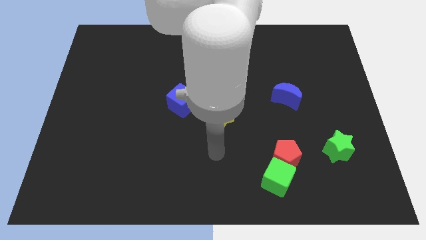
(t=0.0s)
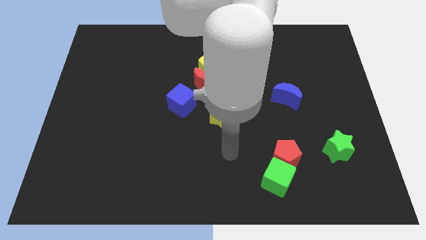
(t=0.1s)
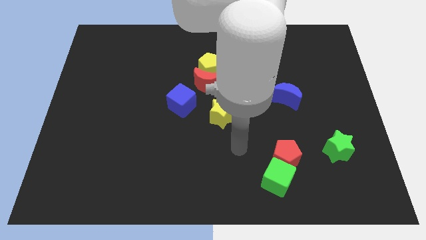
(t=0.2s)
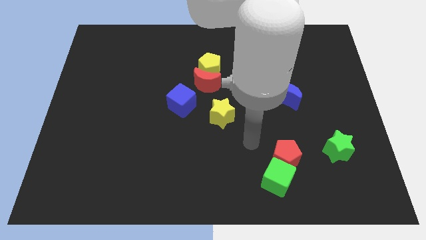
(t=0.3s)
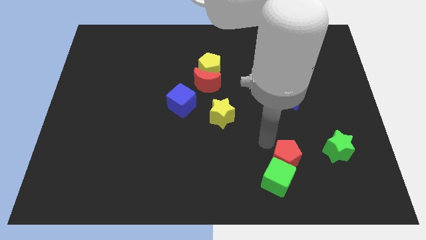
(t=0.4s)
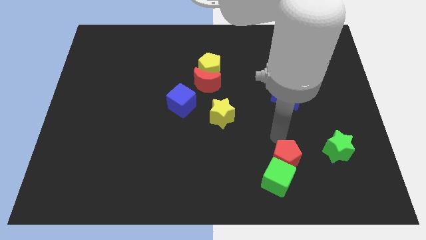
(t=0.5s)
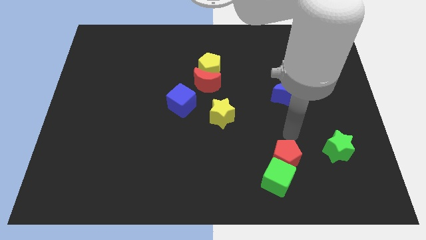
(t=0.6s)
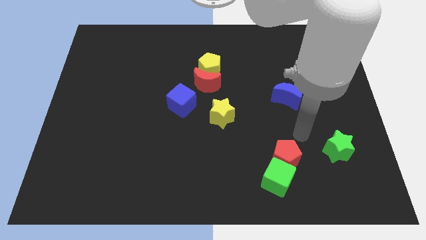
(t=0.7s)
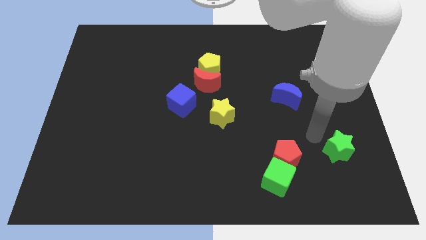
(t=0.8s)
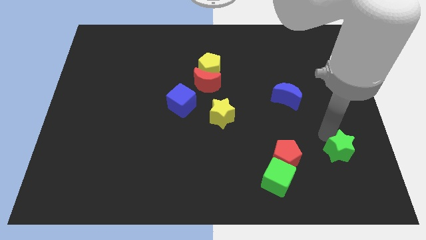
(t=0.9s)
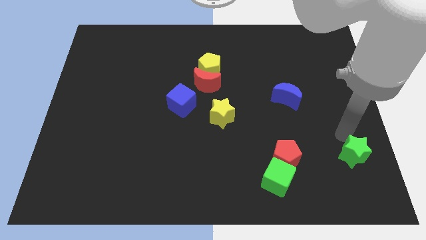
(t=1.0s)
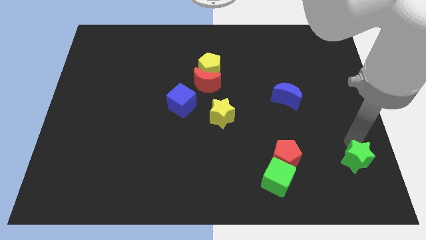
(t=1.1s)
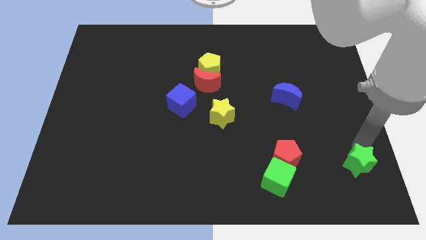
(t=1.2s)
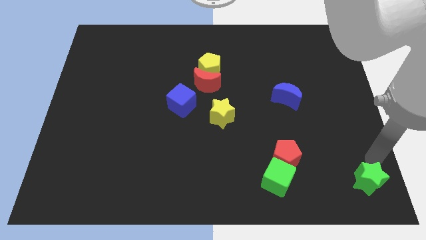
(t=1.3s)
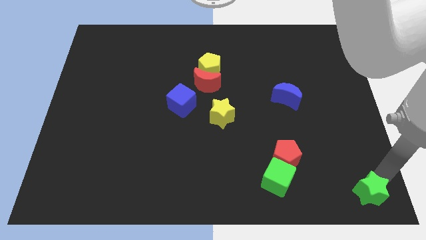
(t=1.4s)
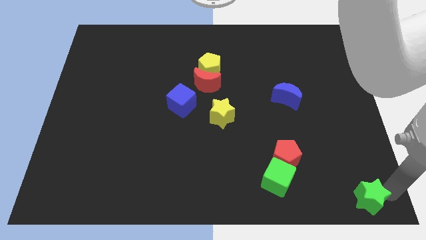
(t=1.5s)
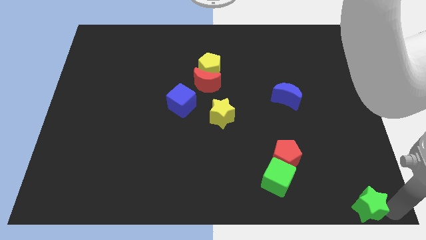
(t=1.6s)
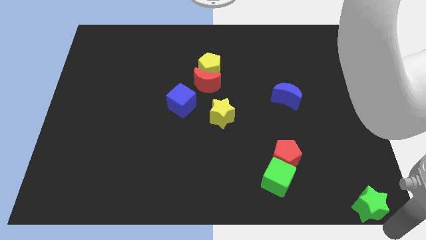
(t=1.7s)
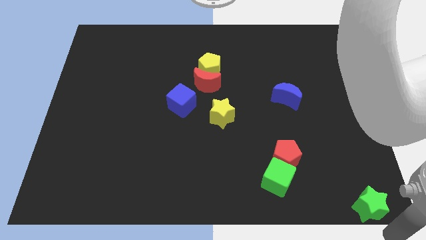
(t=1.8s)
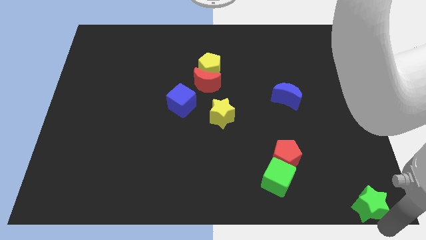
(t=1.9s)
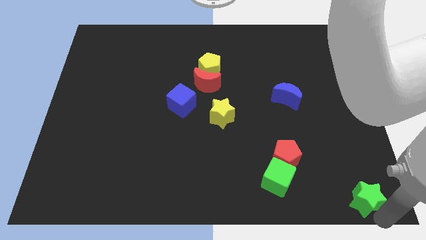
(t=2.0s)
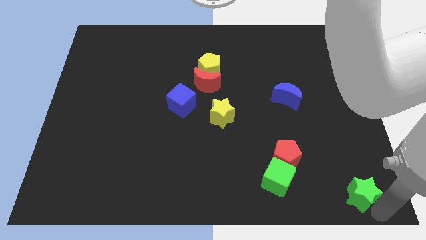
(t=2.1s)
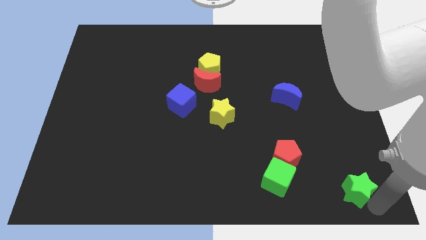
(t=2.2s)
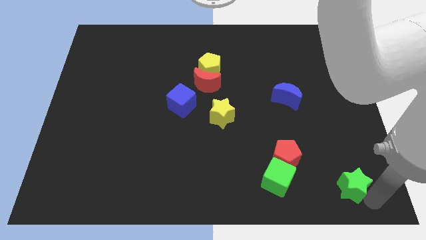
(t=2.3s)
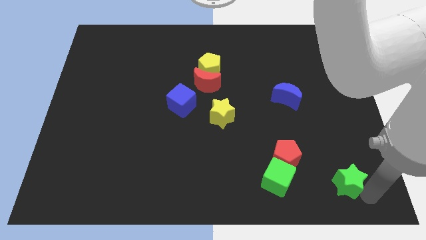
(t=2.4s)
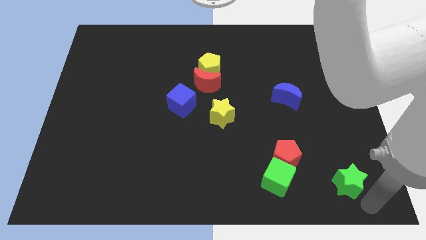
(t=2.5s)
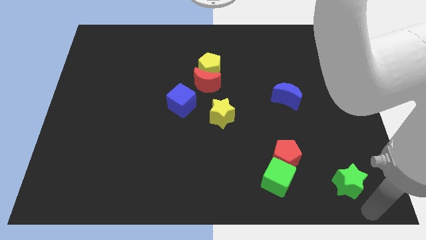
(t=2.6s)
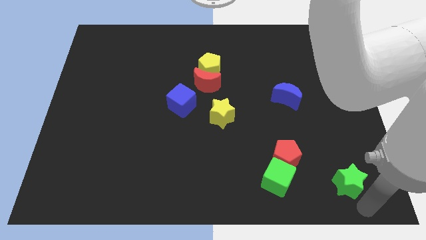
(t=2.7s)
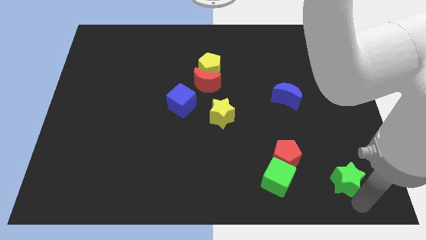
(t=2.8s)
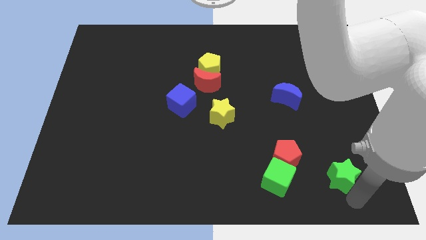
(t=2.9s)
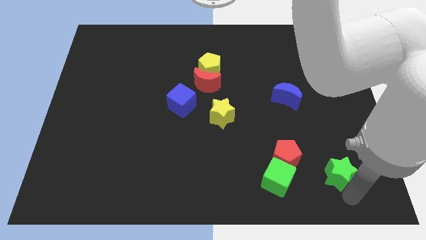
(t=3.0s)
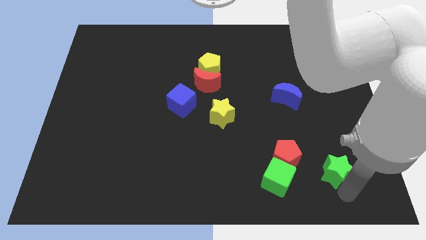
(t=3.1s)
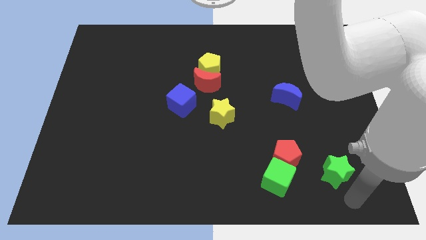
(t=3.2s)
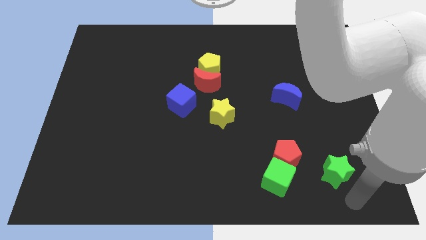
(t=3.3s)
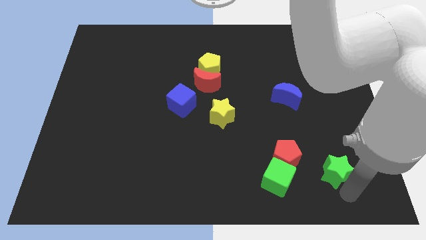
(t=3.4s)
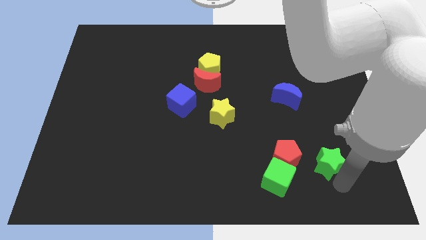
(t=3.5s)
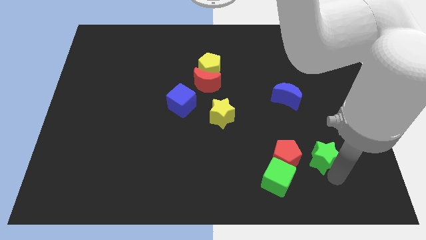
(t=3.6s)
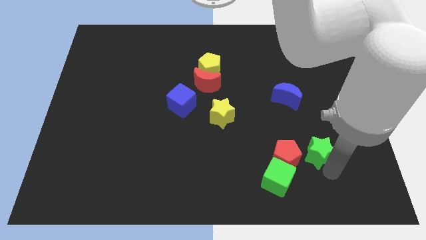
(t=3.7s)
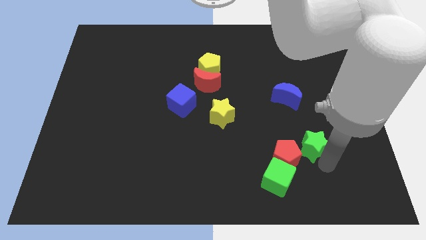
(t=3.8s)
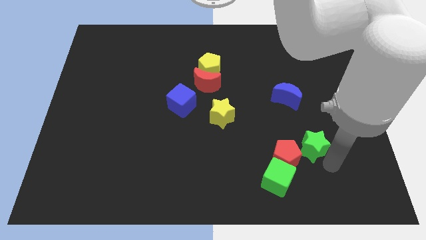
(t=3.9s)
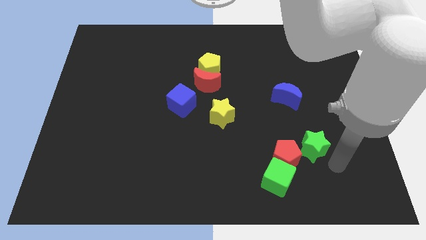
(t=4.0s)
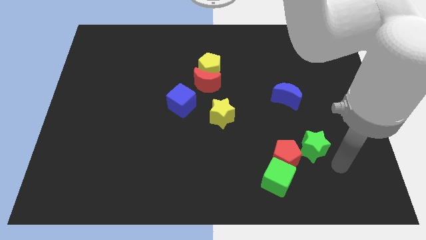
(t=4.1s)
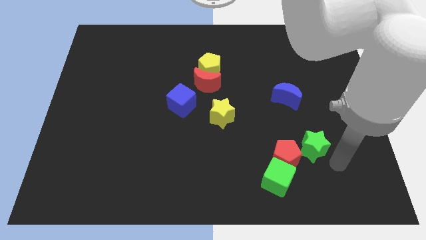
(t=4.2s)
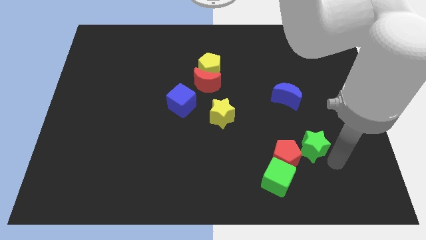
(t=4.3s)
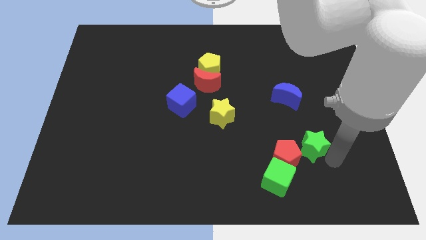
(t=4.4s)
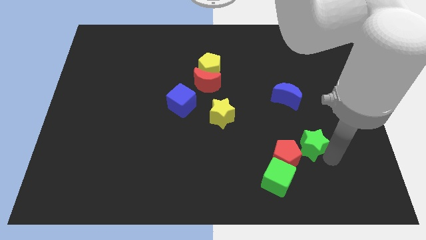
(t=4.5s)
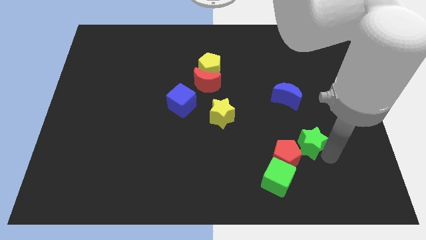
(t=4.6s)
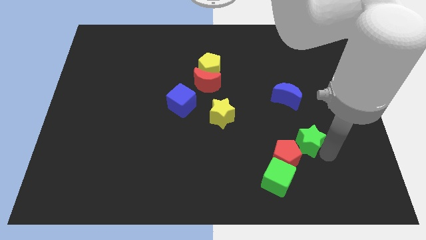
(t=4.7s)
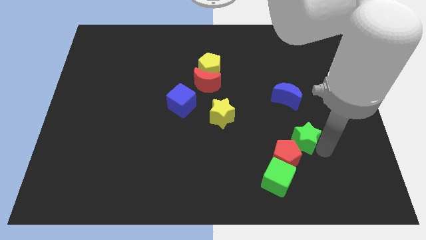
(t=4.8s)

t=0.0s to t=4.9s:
slightly push the green star left

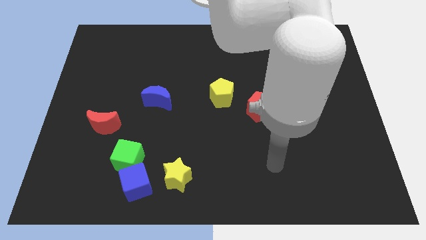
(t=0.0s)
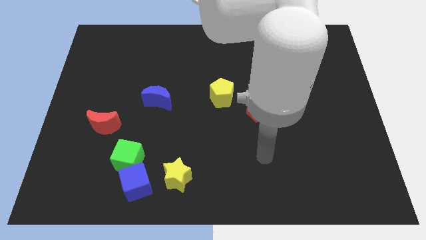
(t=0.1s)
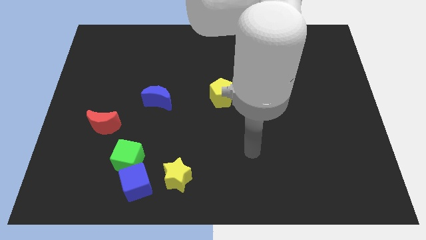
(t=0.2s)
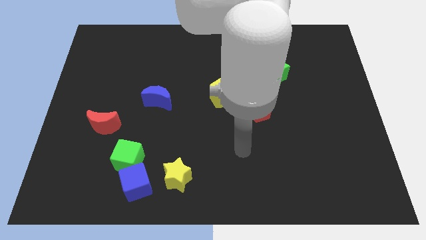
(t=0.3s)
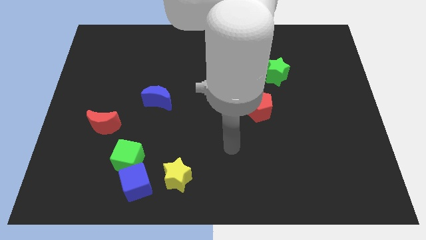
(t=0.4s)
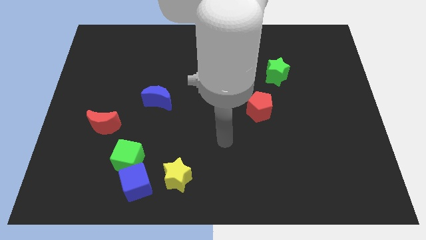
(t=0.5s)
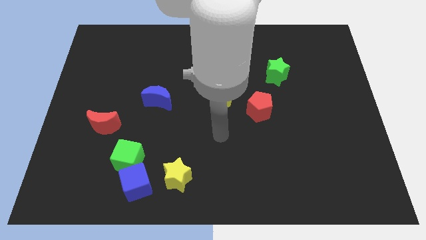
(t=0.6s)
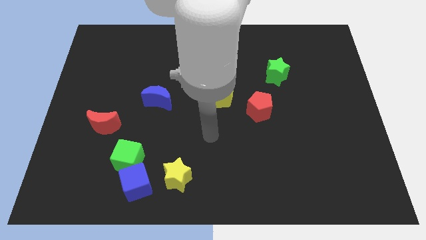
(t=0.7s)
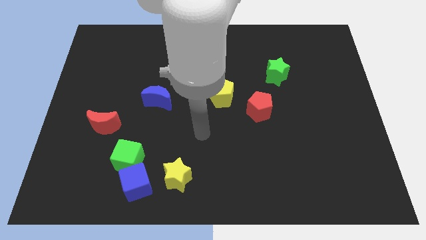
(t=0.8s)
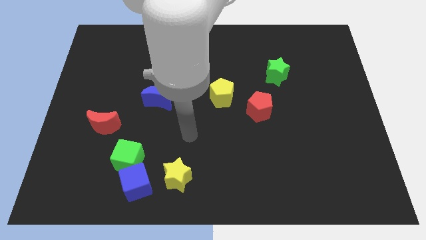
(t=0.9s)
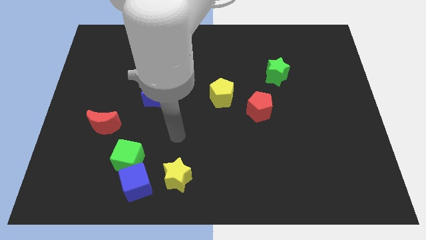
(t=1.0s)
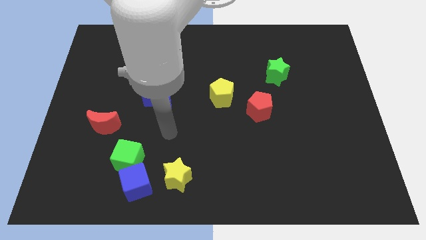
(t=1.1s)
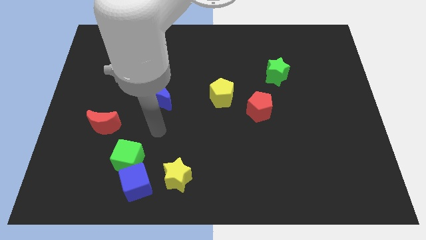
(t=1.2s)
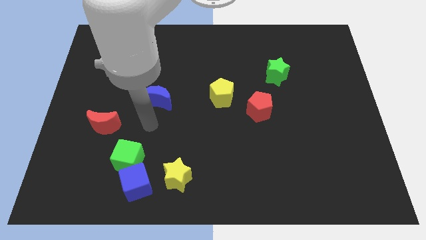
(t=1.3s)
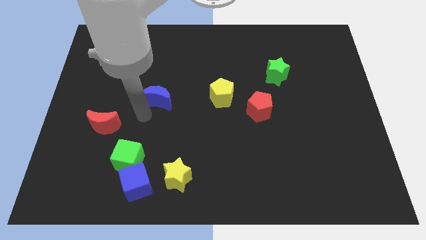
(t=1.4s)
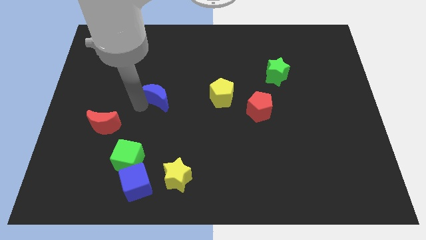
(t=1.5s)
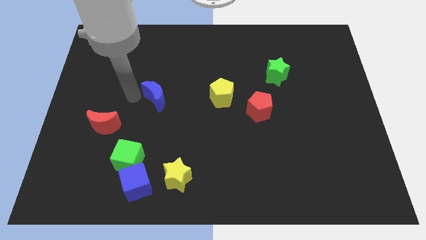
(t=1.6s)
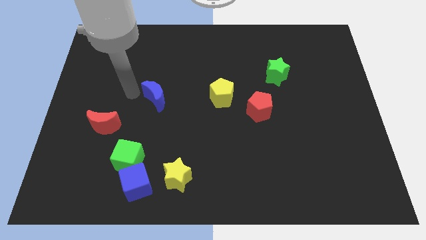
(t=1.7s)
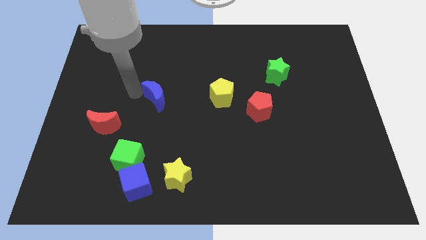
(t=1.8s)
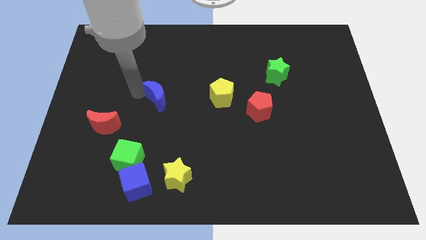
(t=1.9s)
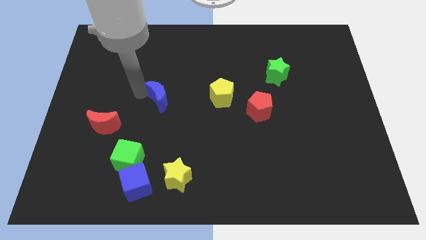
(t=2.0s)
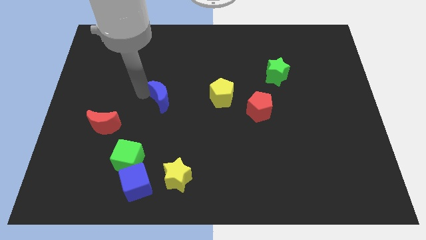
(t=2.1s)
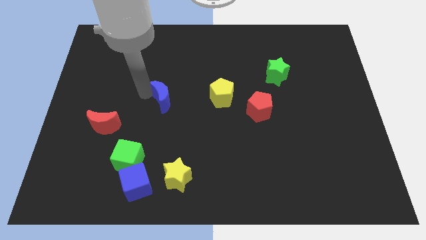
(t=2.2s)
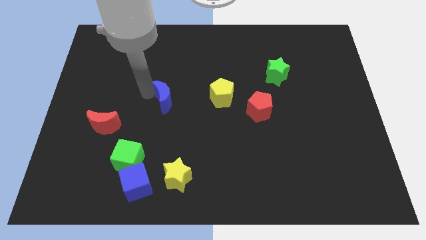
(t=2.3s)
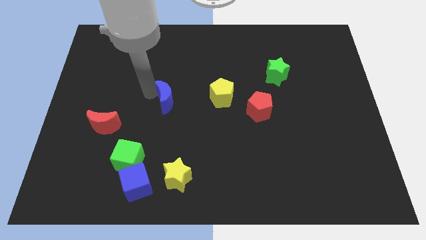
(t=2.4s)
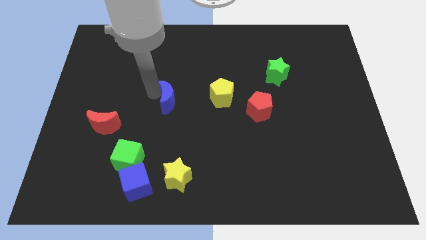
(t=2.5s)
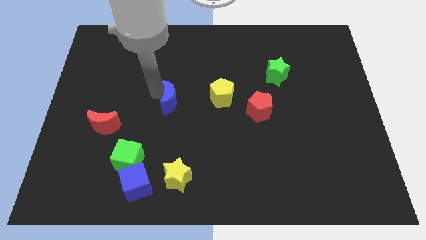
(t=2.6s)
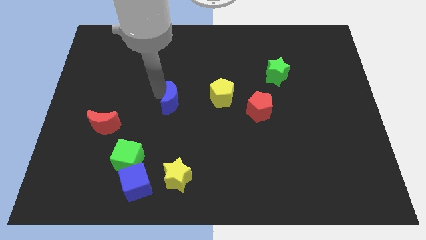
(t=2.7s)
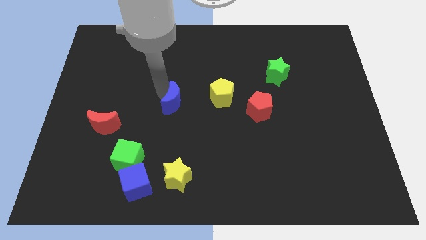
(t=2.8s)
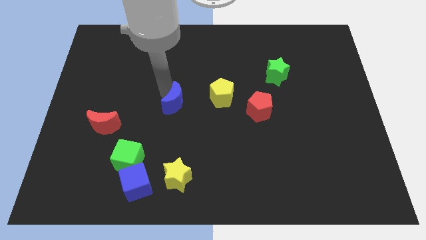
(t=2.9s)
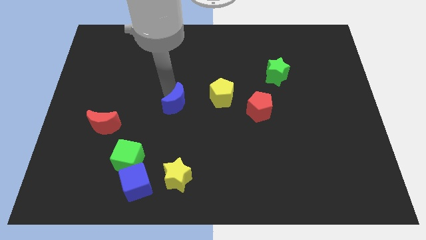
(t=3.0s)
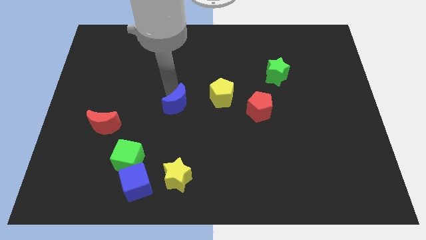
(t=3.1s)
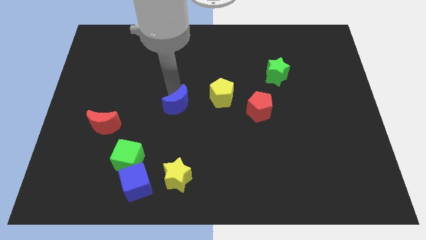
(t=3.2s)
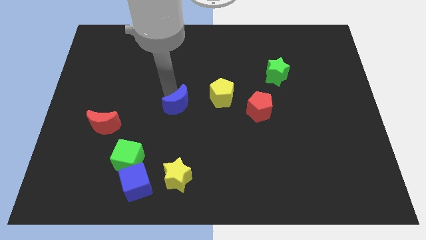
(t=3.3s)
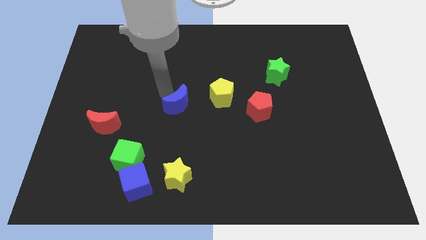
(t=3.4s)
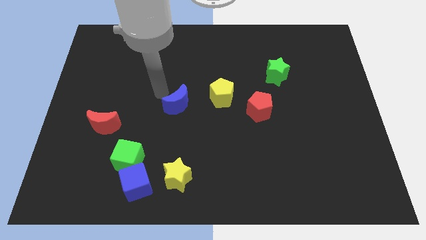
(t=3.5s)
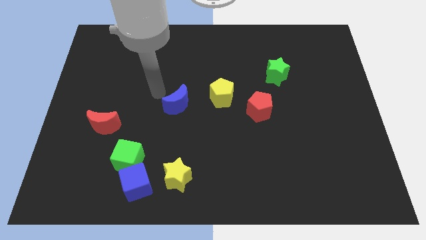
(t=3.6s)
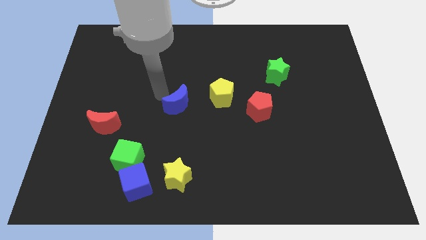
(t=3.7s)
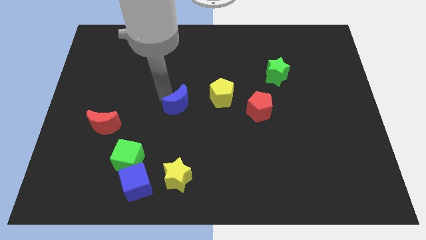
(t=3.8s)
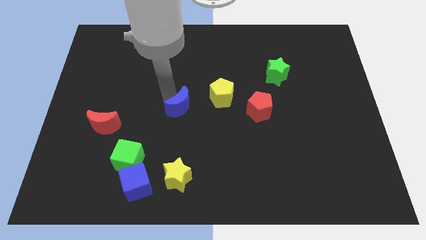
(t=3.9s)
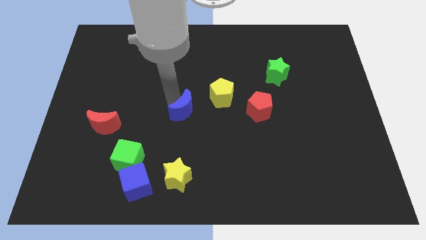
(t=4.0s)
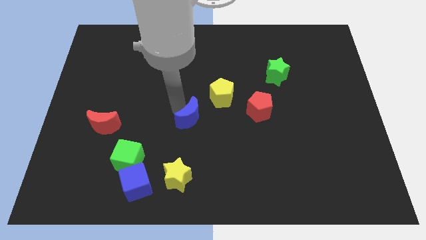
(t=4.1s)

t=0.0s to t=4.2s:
push the blue moon somewhat right
